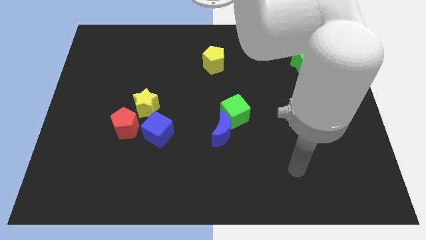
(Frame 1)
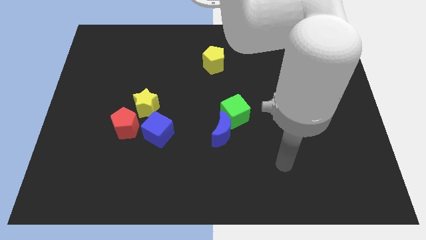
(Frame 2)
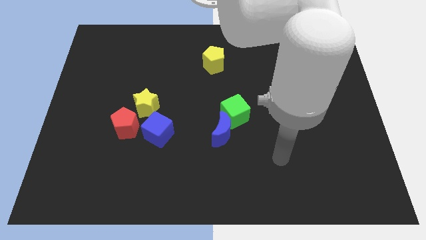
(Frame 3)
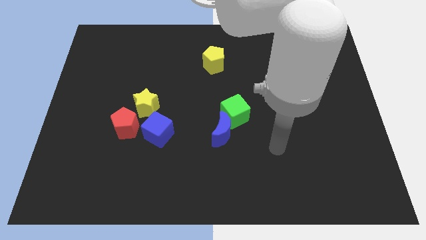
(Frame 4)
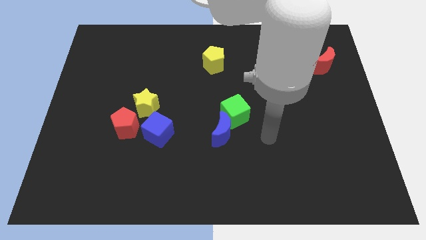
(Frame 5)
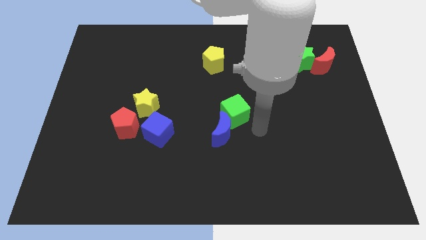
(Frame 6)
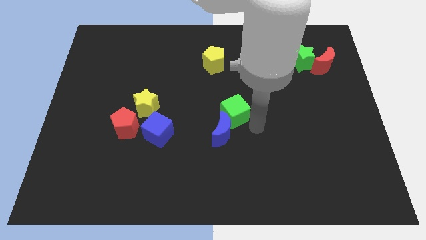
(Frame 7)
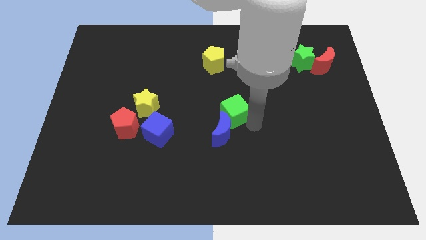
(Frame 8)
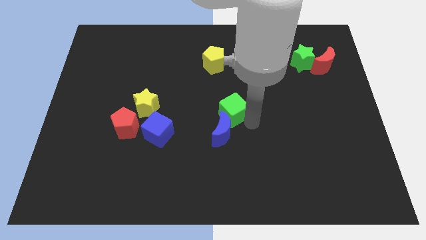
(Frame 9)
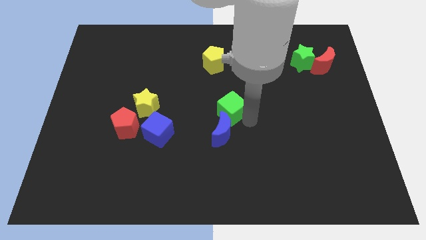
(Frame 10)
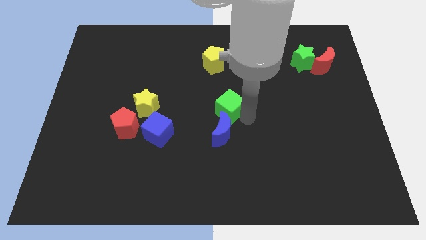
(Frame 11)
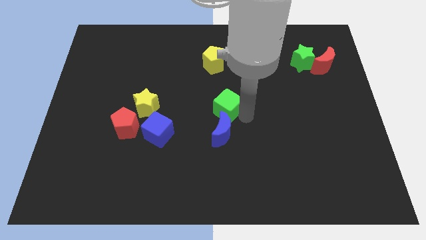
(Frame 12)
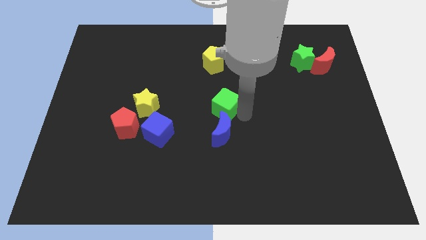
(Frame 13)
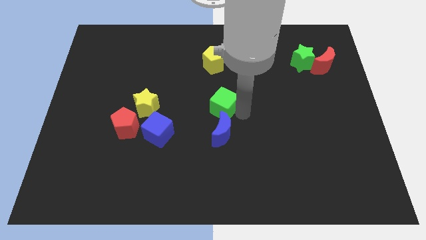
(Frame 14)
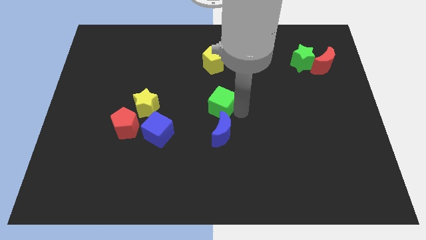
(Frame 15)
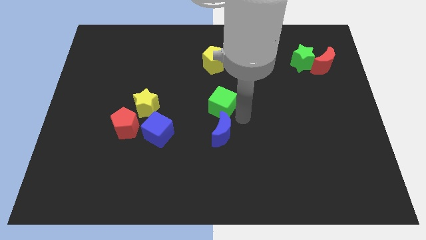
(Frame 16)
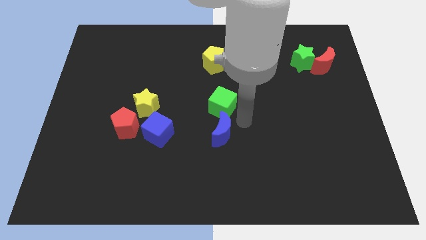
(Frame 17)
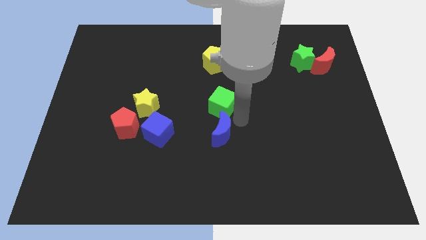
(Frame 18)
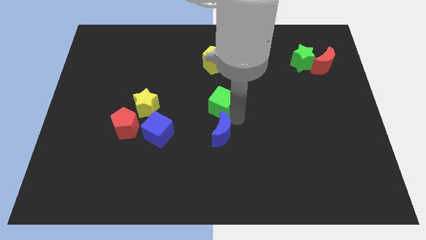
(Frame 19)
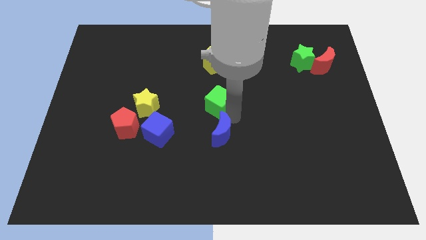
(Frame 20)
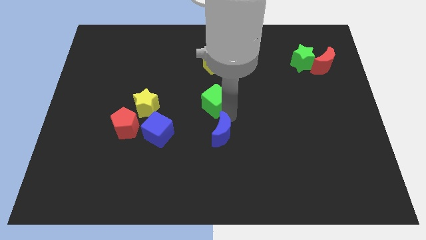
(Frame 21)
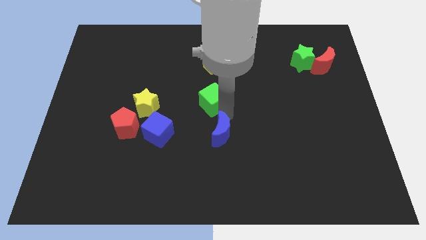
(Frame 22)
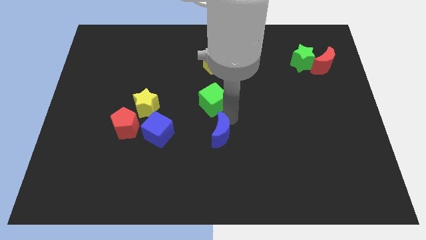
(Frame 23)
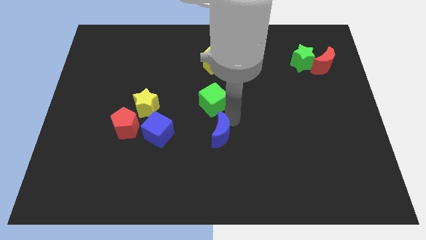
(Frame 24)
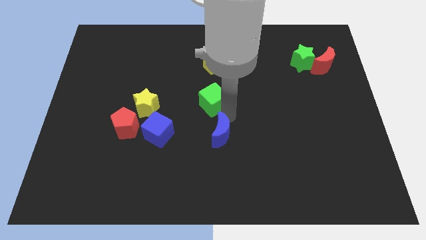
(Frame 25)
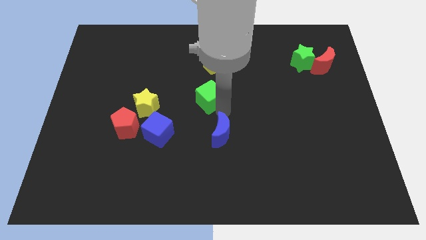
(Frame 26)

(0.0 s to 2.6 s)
slightly move the green cube diagonally upwards and to the left

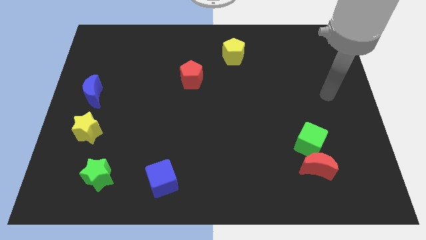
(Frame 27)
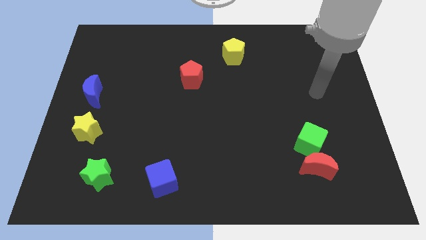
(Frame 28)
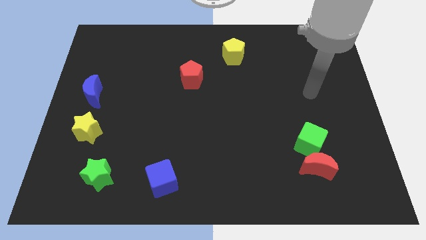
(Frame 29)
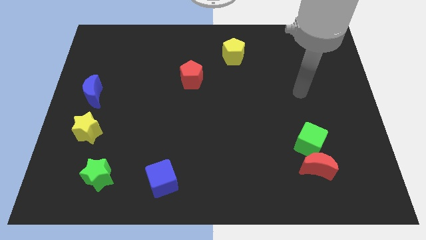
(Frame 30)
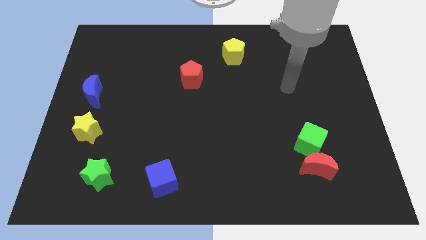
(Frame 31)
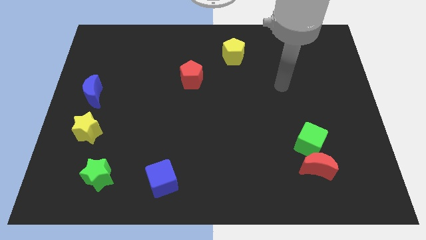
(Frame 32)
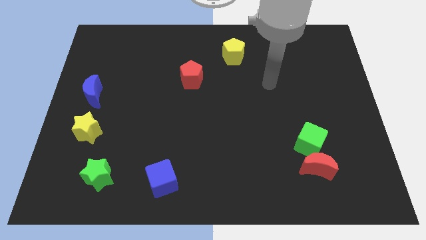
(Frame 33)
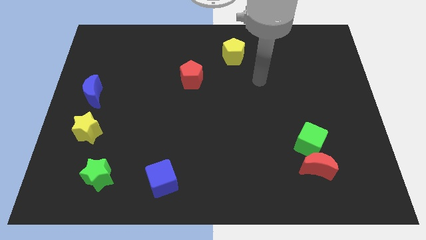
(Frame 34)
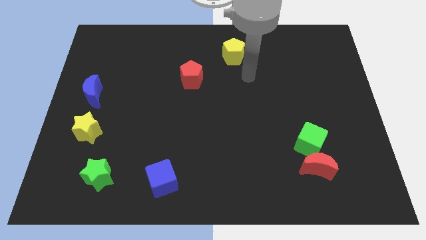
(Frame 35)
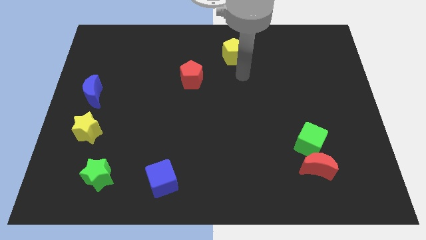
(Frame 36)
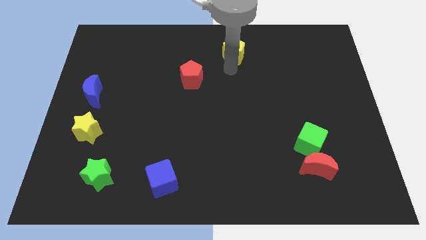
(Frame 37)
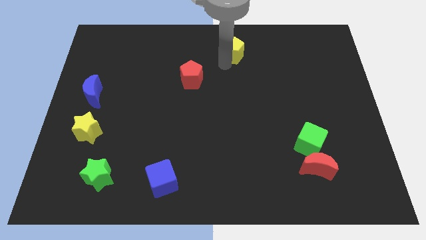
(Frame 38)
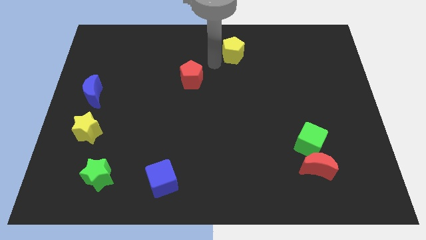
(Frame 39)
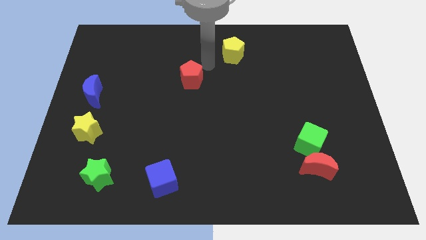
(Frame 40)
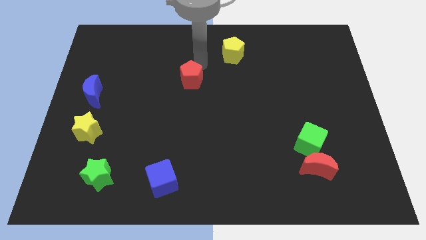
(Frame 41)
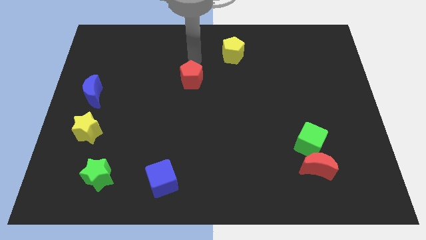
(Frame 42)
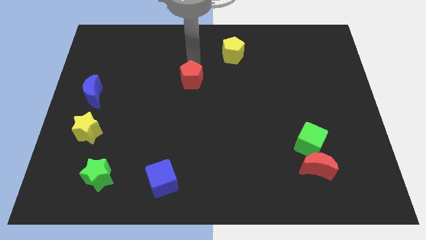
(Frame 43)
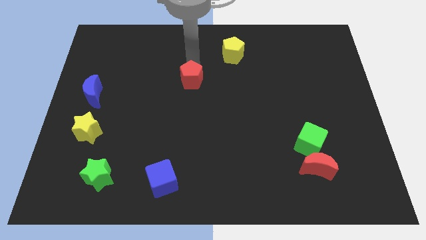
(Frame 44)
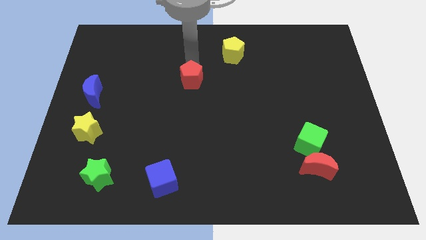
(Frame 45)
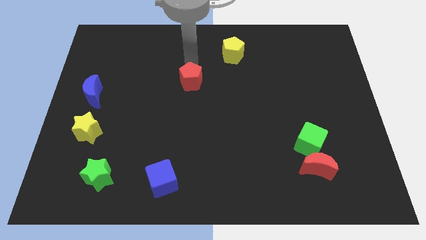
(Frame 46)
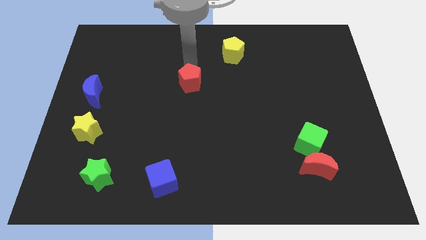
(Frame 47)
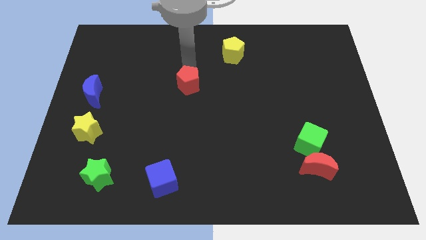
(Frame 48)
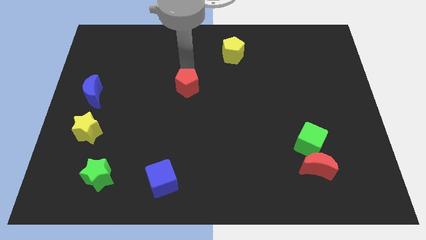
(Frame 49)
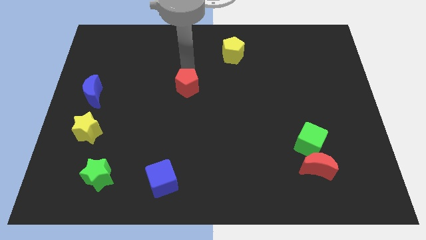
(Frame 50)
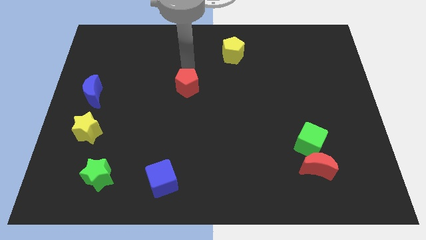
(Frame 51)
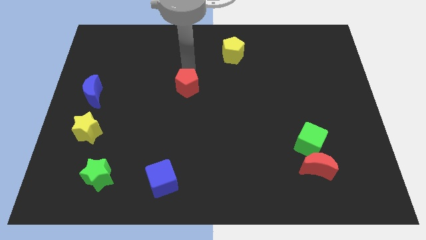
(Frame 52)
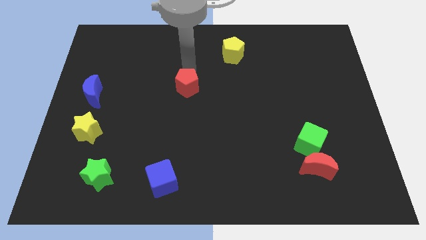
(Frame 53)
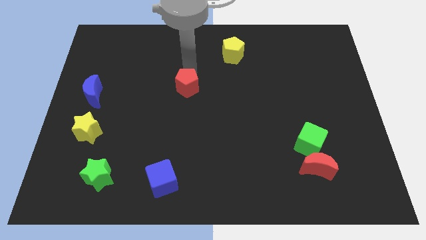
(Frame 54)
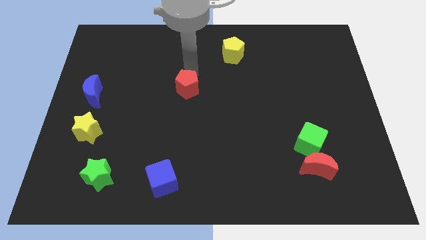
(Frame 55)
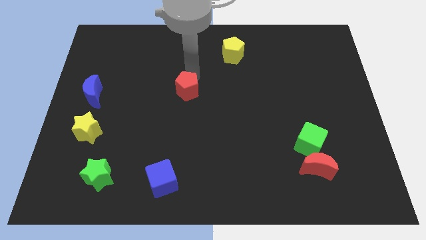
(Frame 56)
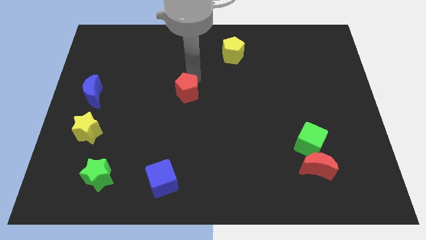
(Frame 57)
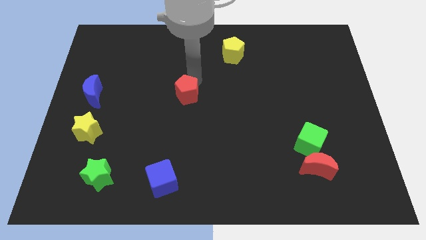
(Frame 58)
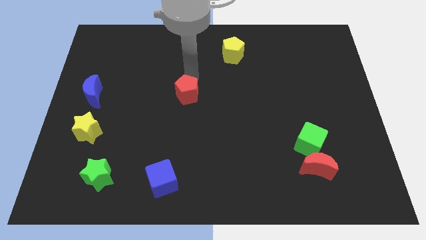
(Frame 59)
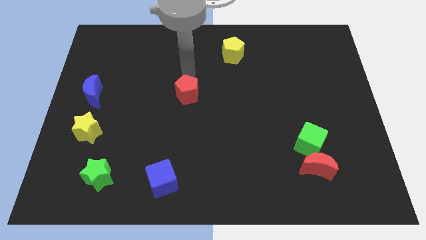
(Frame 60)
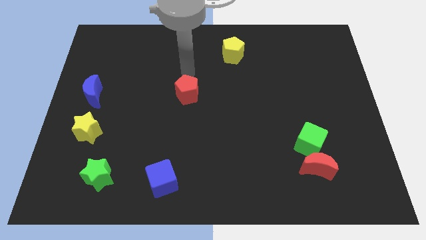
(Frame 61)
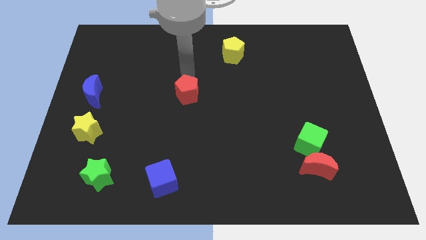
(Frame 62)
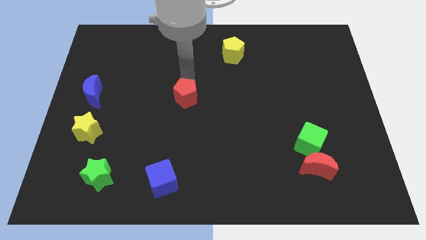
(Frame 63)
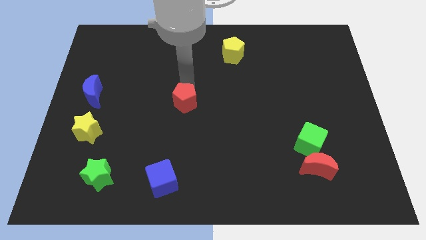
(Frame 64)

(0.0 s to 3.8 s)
slide the red pentagon downwards a bit

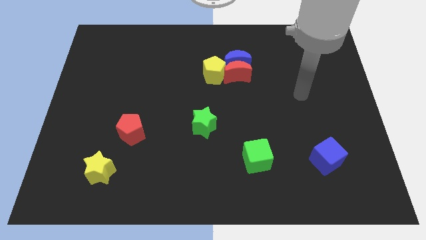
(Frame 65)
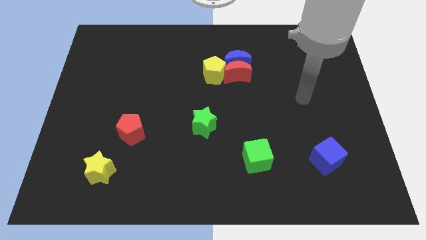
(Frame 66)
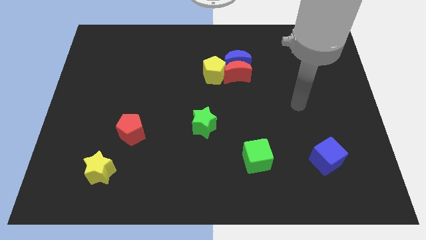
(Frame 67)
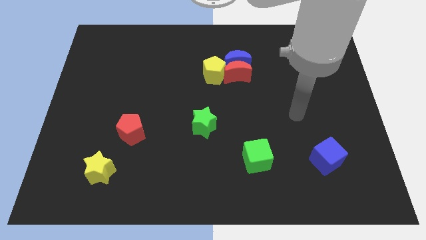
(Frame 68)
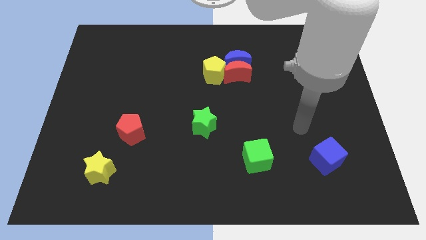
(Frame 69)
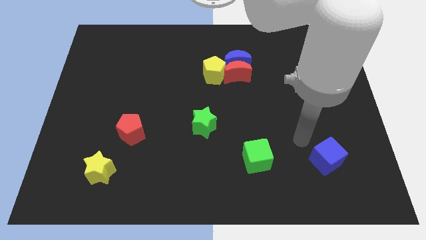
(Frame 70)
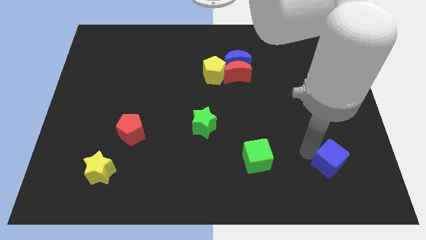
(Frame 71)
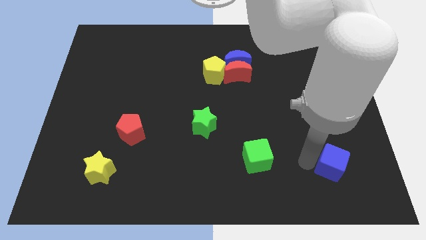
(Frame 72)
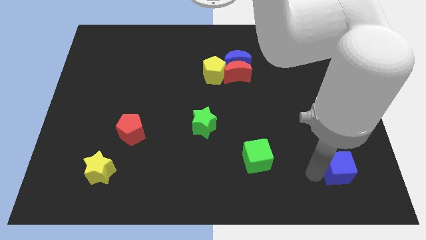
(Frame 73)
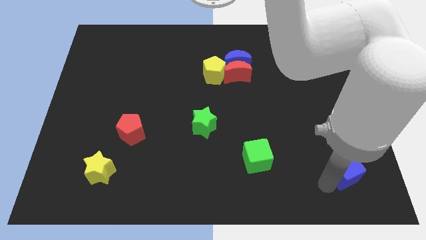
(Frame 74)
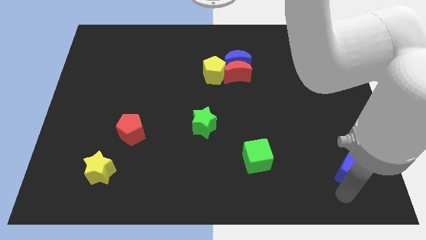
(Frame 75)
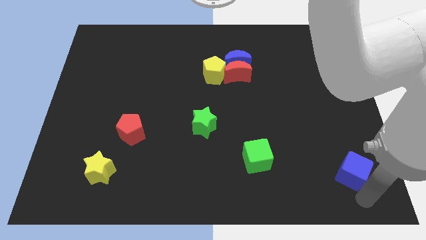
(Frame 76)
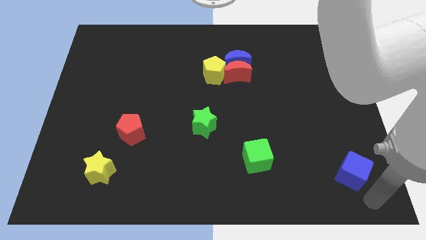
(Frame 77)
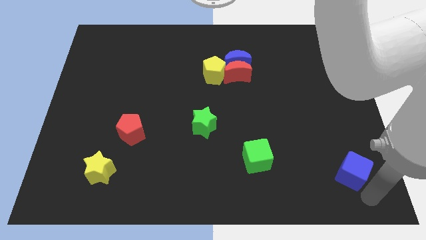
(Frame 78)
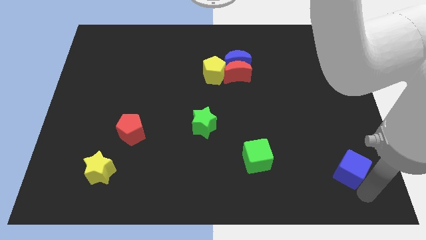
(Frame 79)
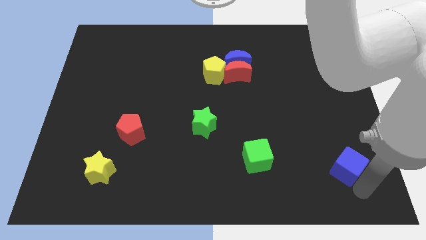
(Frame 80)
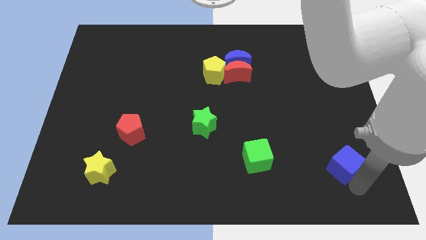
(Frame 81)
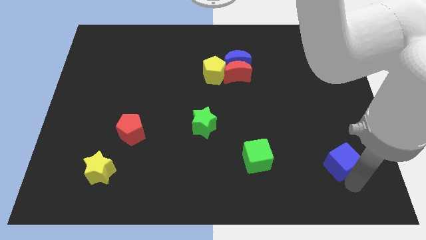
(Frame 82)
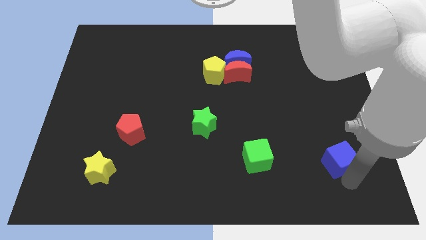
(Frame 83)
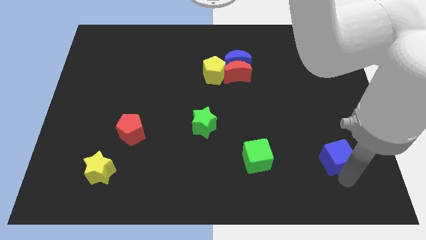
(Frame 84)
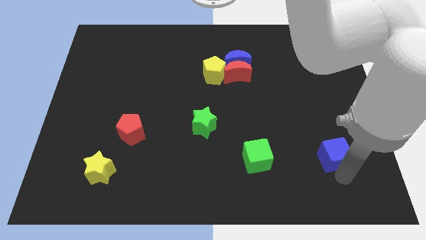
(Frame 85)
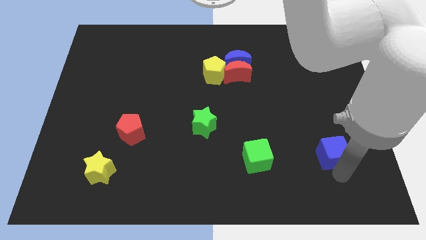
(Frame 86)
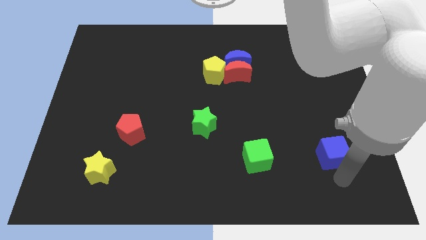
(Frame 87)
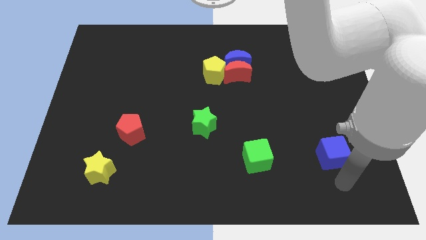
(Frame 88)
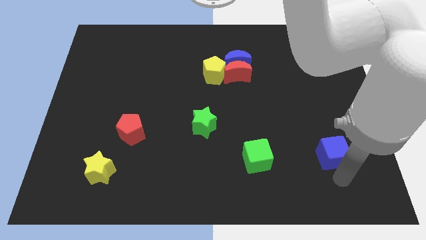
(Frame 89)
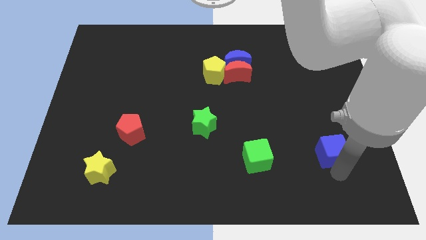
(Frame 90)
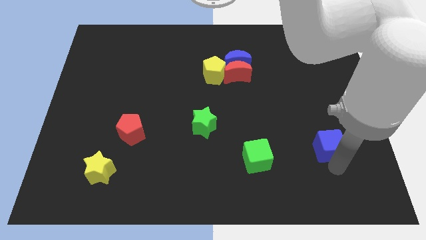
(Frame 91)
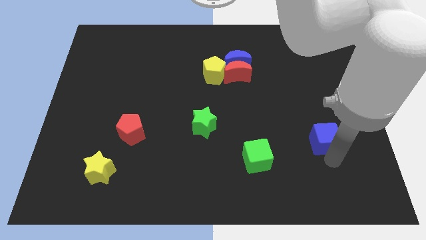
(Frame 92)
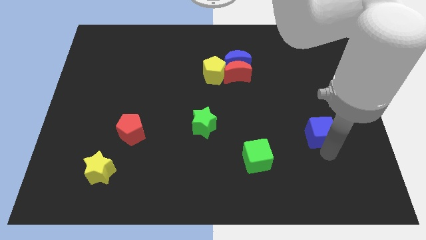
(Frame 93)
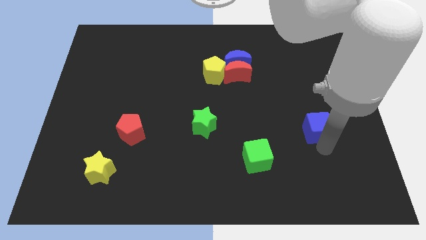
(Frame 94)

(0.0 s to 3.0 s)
slightly move the blue cube upwards
